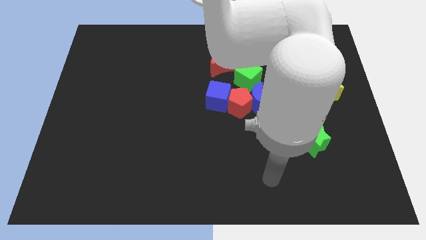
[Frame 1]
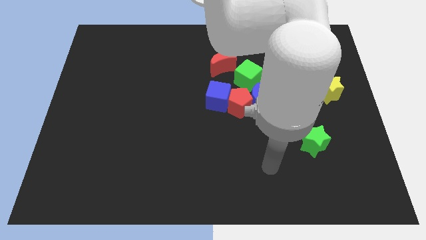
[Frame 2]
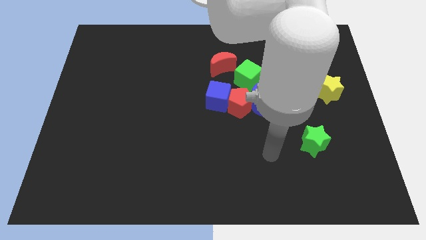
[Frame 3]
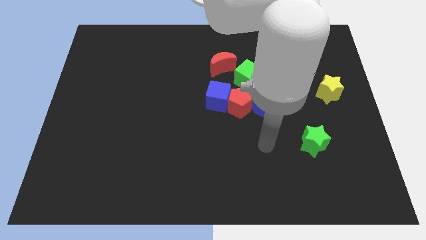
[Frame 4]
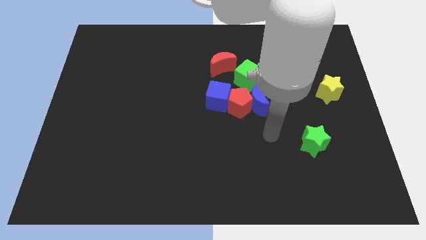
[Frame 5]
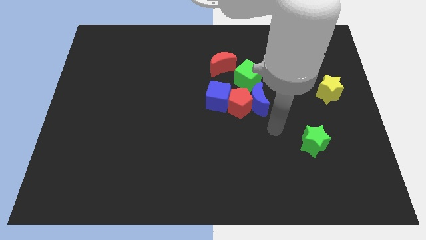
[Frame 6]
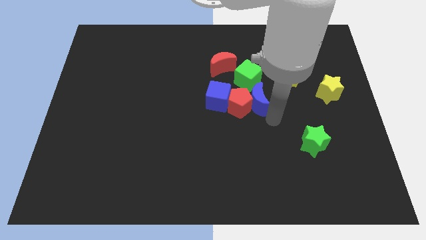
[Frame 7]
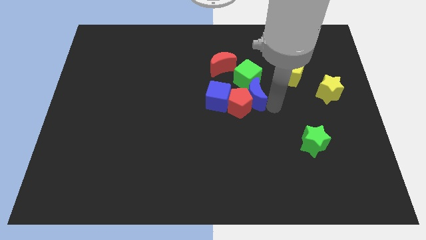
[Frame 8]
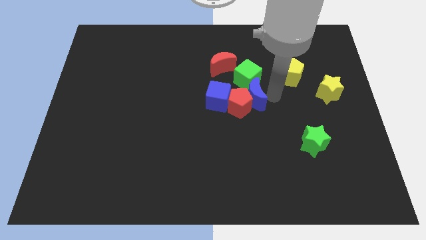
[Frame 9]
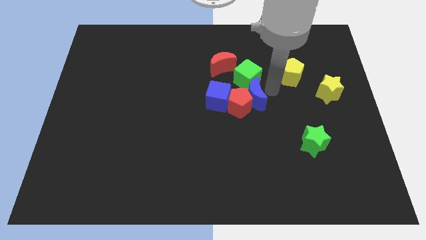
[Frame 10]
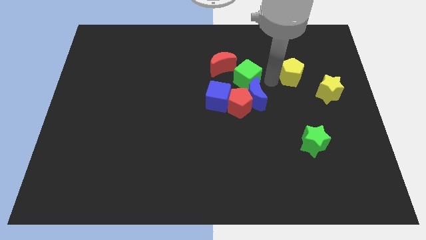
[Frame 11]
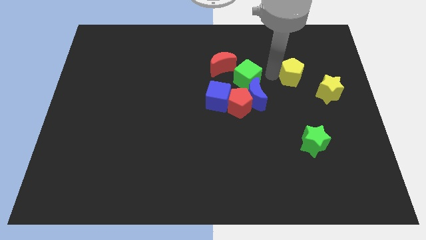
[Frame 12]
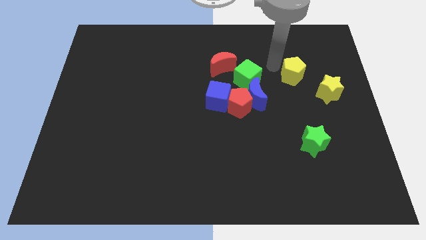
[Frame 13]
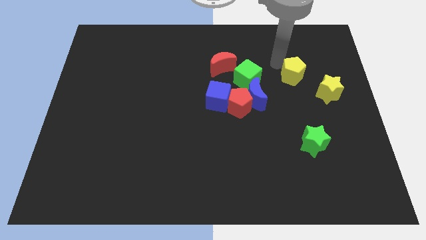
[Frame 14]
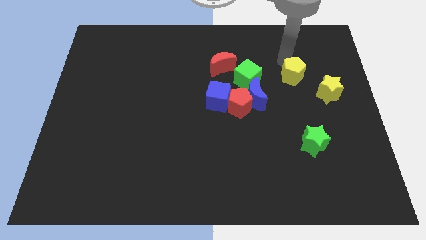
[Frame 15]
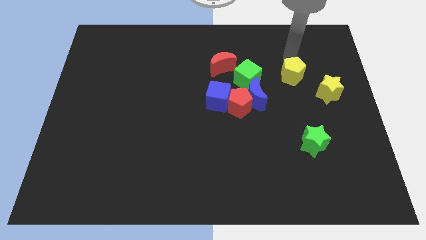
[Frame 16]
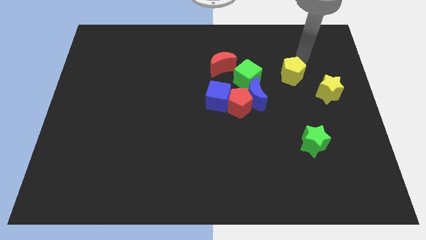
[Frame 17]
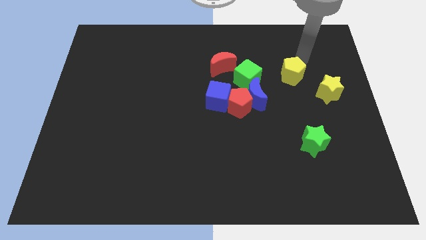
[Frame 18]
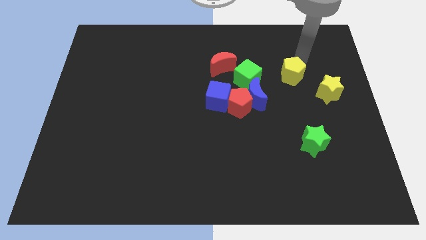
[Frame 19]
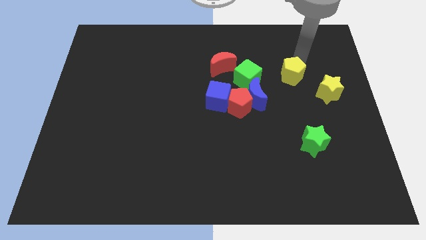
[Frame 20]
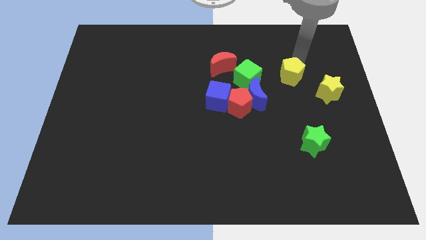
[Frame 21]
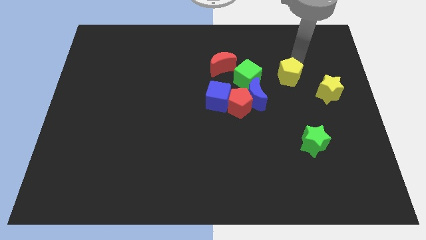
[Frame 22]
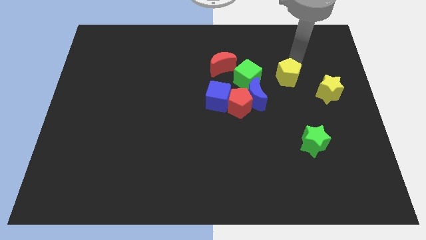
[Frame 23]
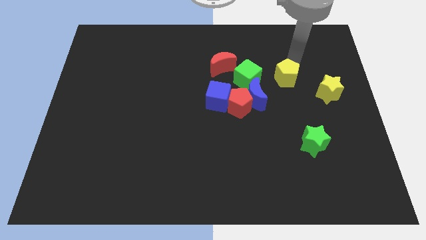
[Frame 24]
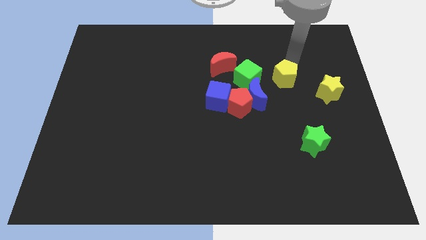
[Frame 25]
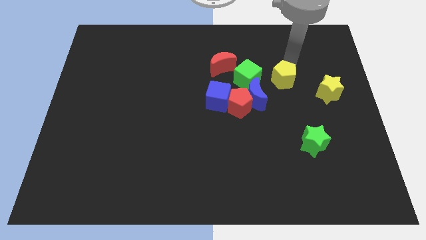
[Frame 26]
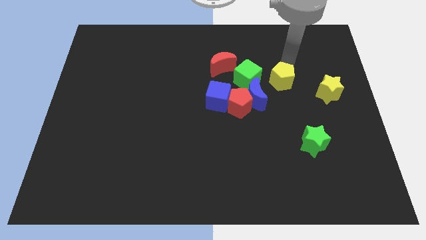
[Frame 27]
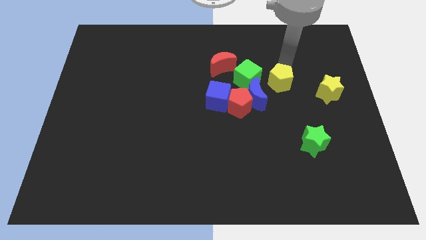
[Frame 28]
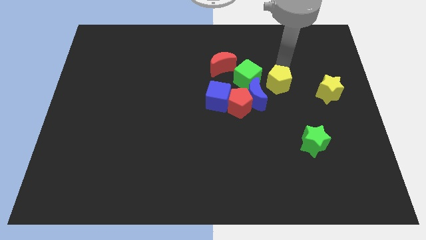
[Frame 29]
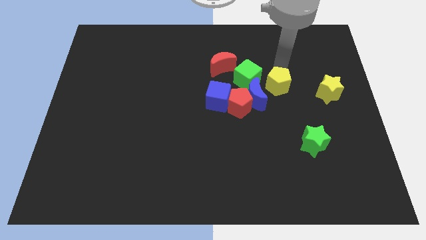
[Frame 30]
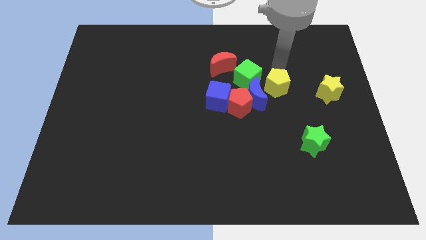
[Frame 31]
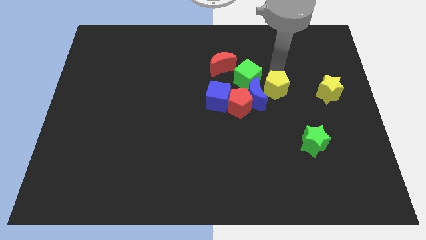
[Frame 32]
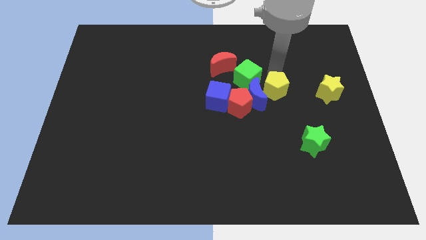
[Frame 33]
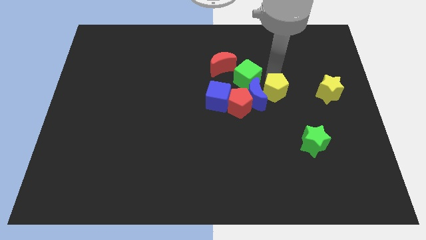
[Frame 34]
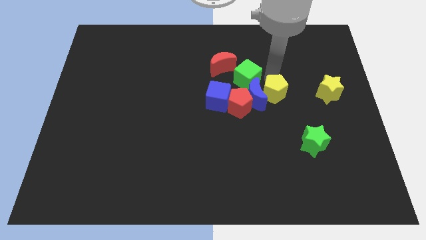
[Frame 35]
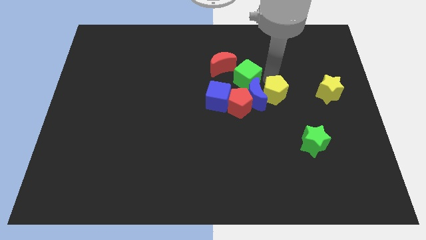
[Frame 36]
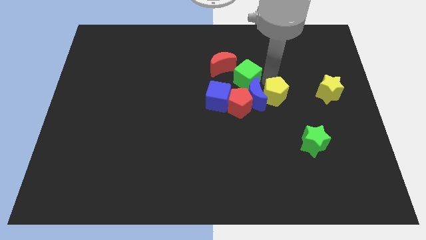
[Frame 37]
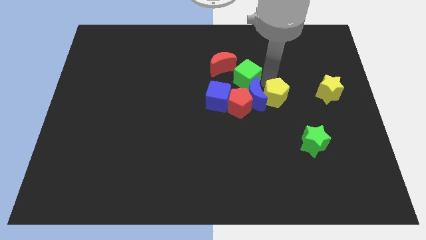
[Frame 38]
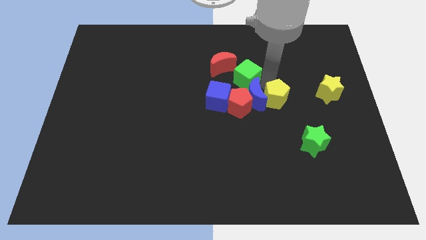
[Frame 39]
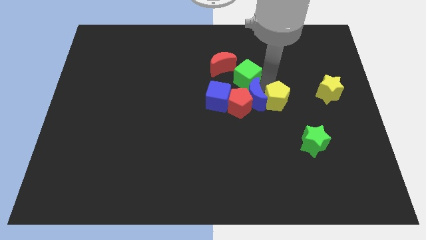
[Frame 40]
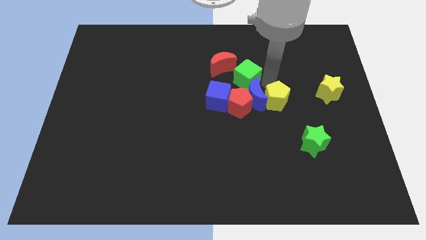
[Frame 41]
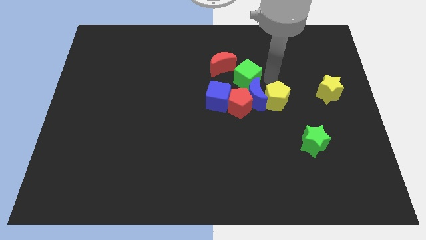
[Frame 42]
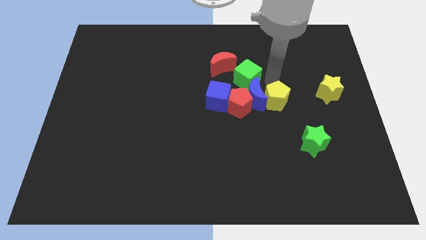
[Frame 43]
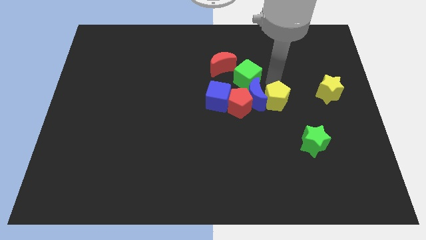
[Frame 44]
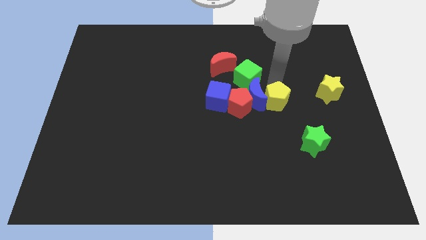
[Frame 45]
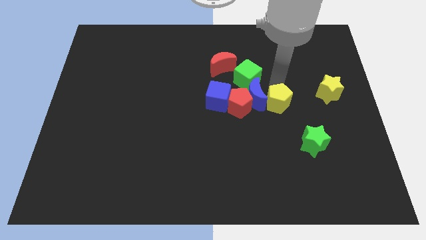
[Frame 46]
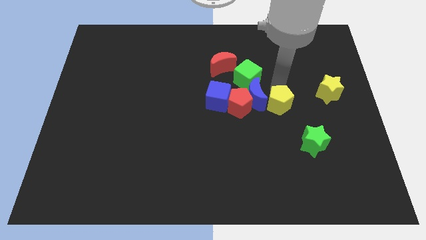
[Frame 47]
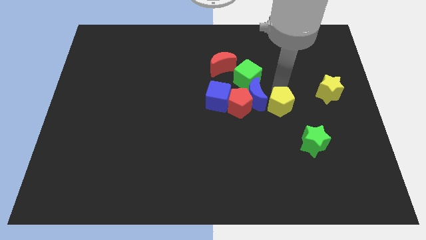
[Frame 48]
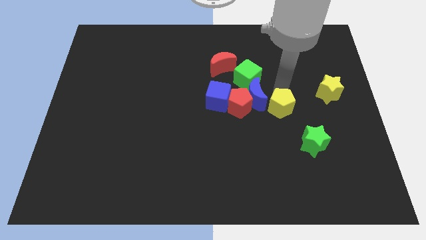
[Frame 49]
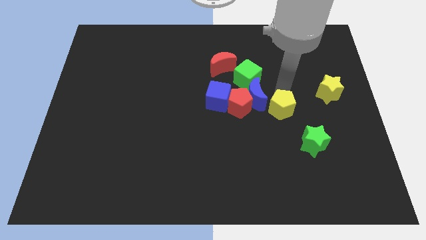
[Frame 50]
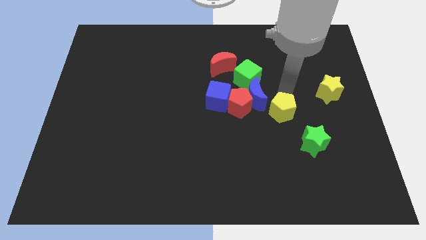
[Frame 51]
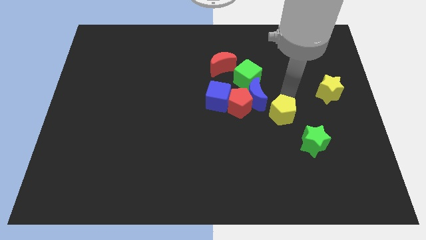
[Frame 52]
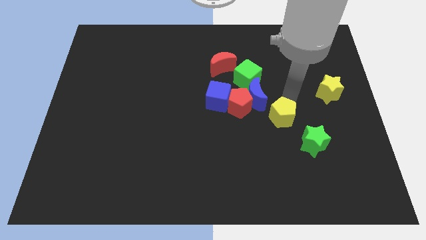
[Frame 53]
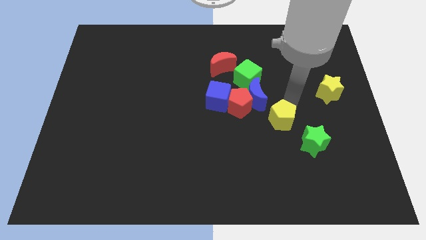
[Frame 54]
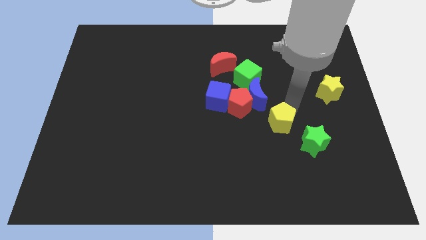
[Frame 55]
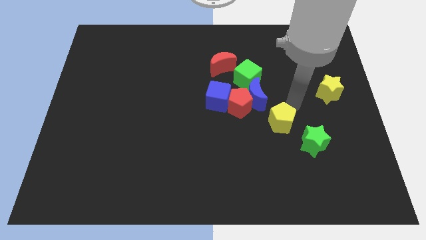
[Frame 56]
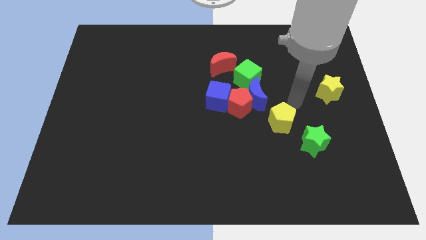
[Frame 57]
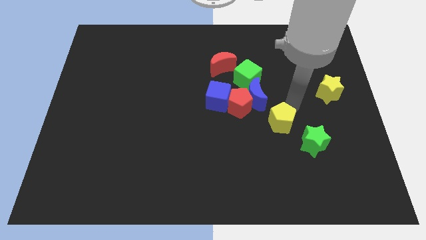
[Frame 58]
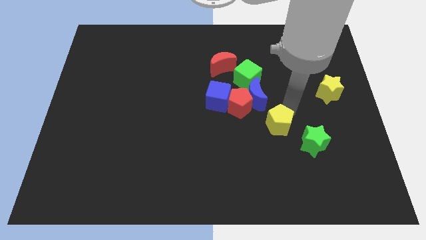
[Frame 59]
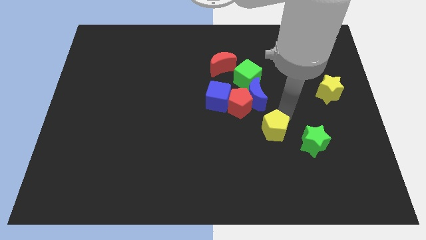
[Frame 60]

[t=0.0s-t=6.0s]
move the yellow pentagon to the left of the green star

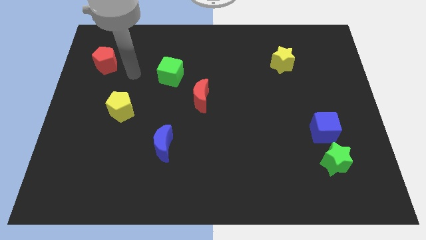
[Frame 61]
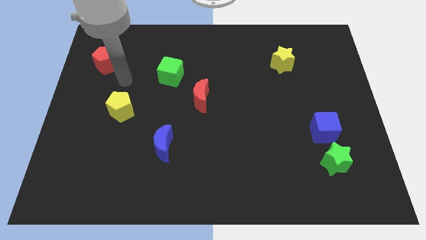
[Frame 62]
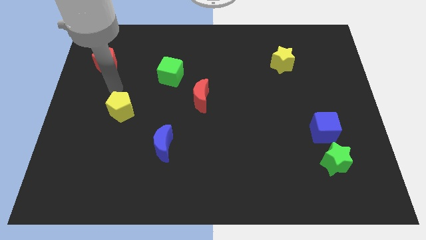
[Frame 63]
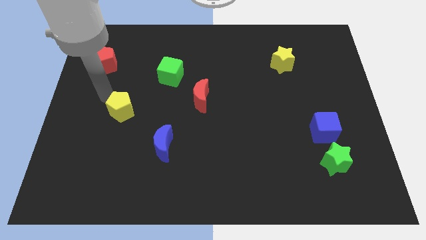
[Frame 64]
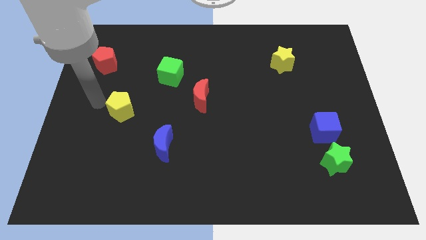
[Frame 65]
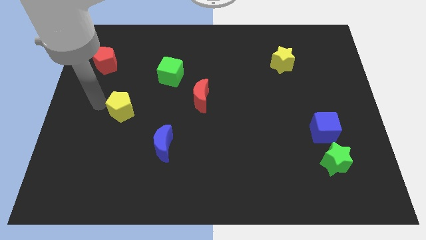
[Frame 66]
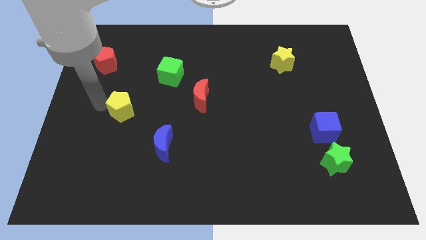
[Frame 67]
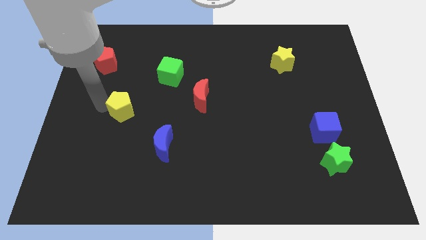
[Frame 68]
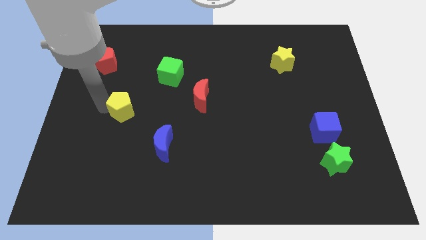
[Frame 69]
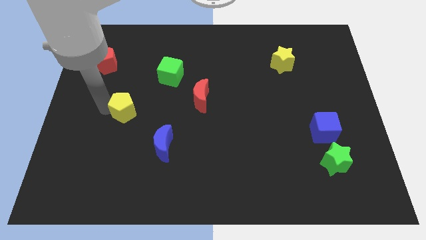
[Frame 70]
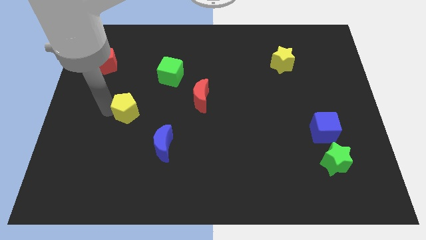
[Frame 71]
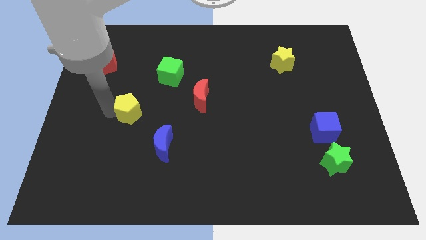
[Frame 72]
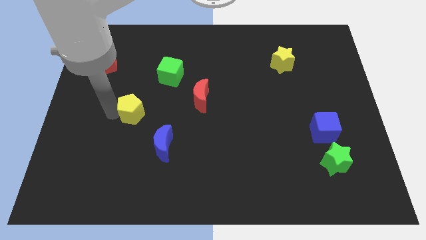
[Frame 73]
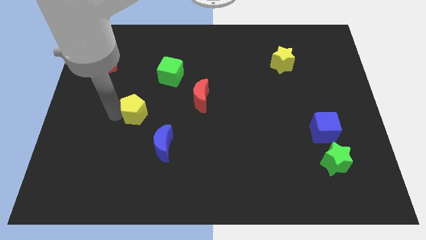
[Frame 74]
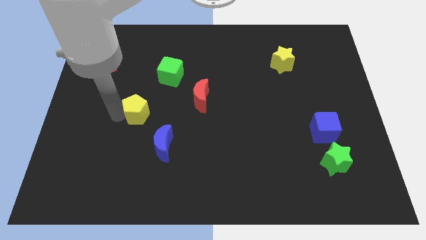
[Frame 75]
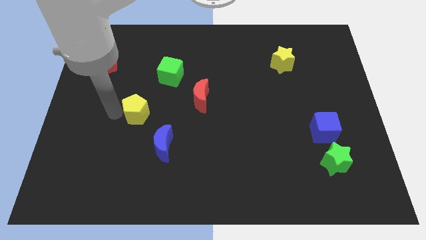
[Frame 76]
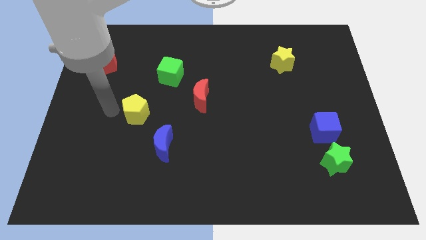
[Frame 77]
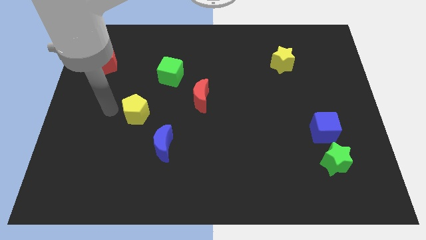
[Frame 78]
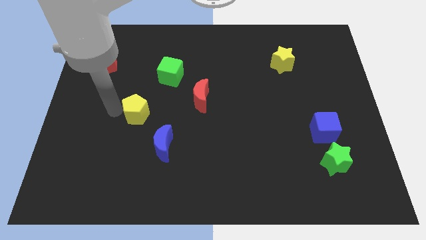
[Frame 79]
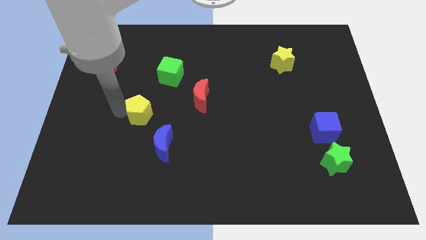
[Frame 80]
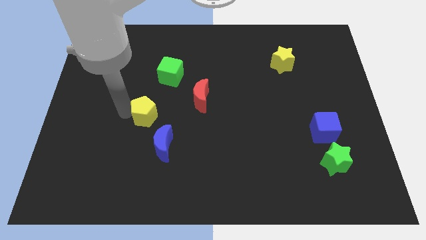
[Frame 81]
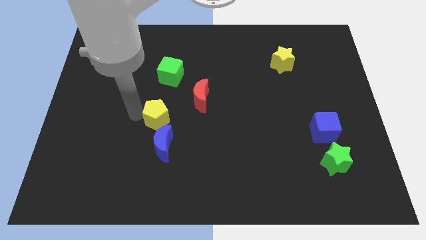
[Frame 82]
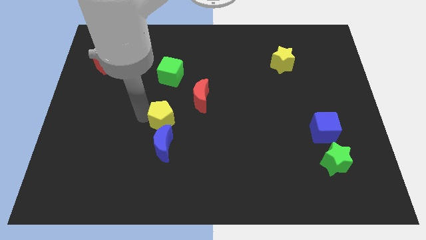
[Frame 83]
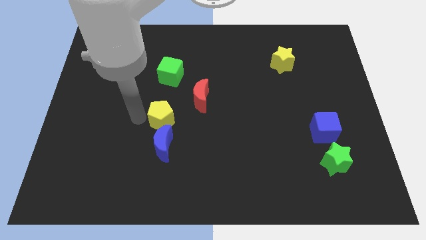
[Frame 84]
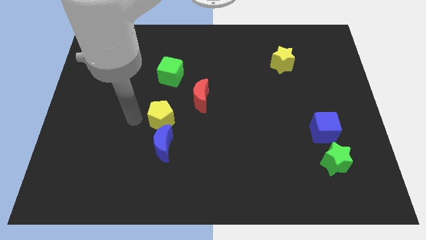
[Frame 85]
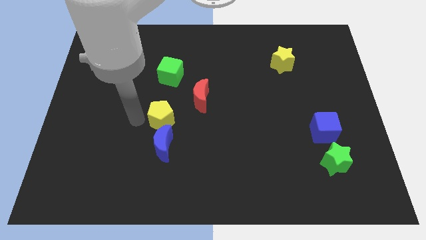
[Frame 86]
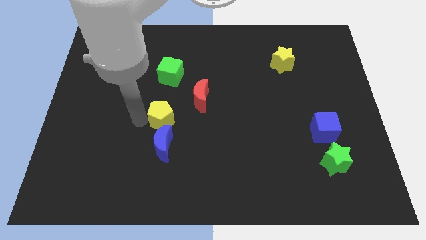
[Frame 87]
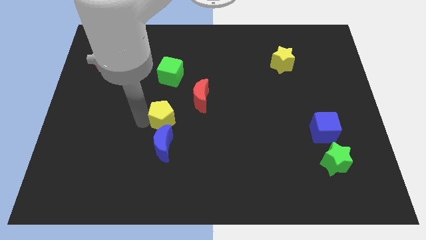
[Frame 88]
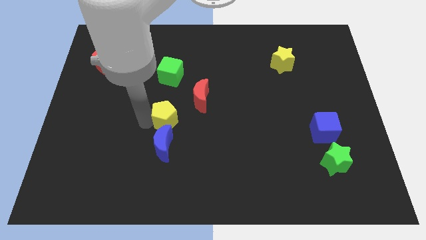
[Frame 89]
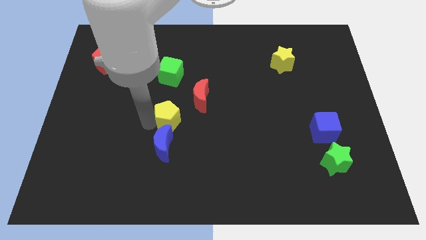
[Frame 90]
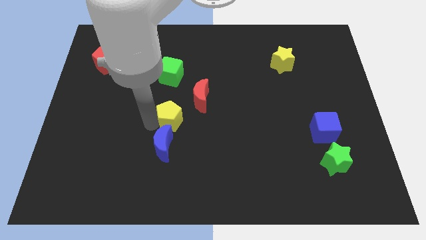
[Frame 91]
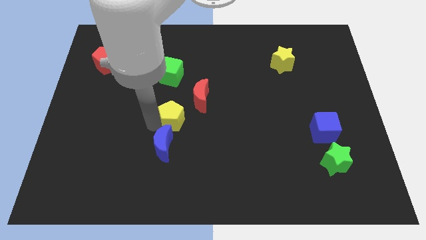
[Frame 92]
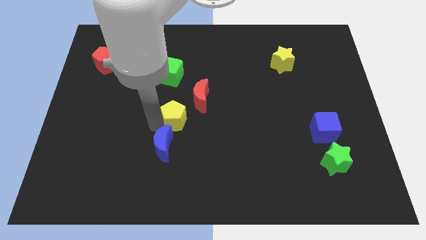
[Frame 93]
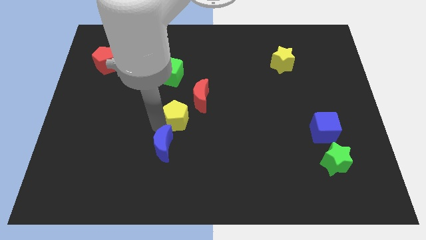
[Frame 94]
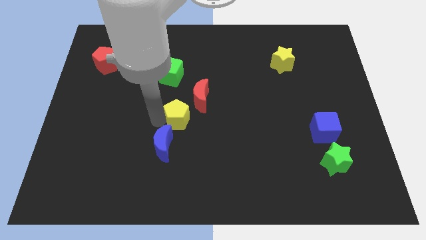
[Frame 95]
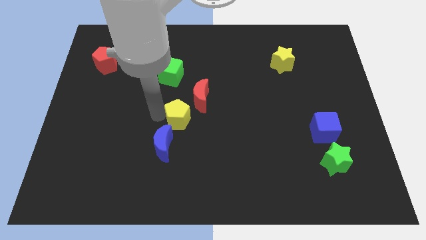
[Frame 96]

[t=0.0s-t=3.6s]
slide the yellow pentagon below the red moon
